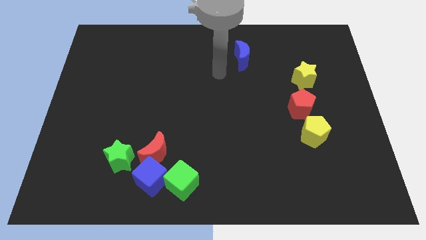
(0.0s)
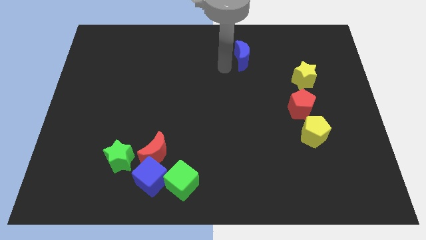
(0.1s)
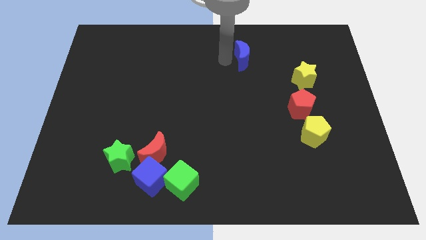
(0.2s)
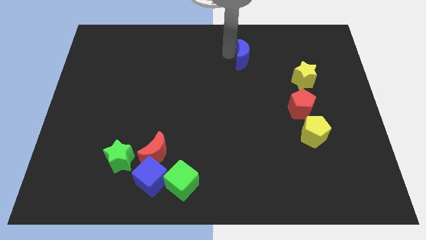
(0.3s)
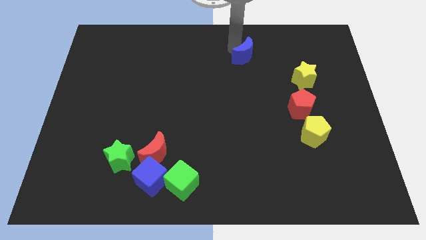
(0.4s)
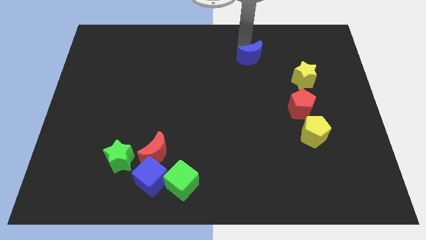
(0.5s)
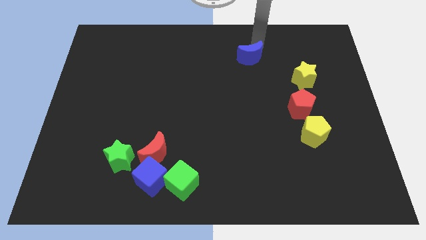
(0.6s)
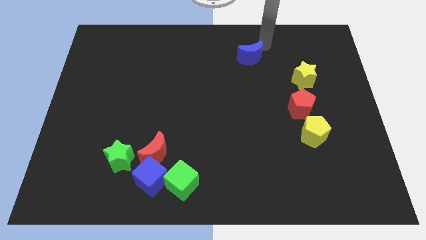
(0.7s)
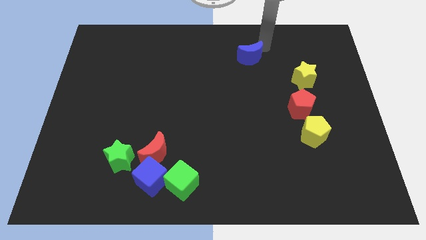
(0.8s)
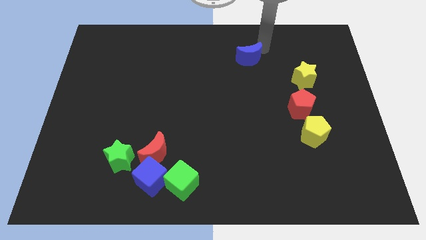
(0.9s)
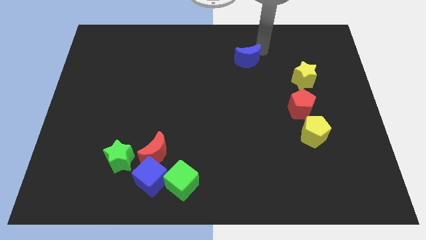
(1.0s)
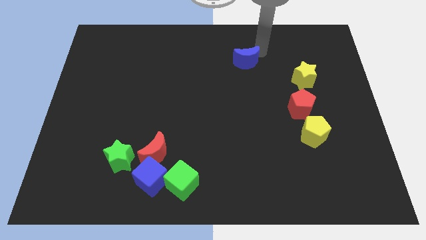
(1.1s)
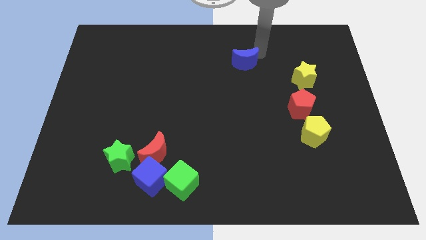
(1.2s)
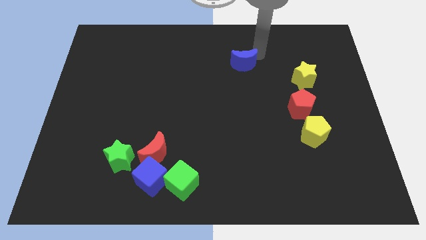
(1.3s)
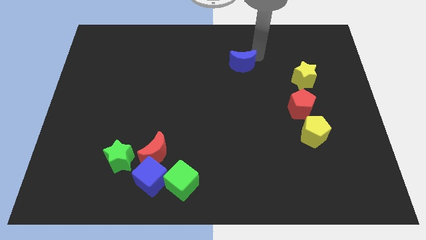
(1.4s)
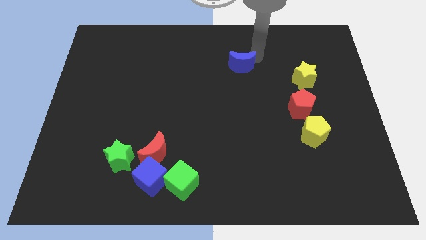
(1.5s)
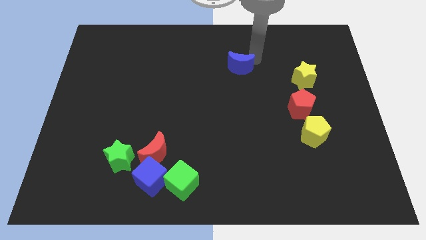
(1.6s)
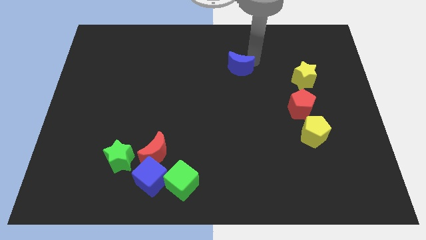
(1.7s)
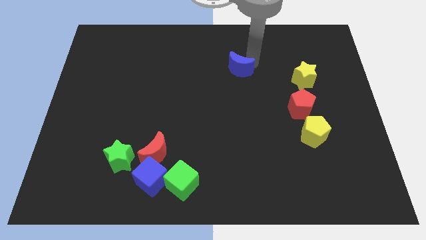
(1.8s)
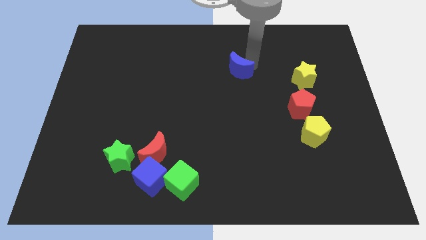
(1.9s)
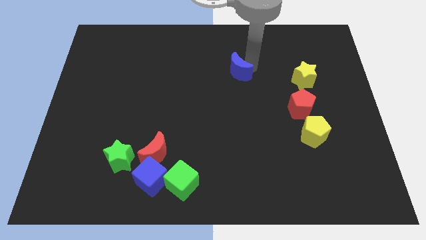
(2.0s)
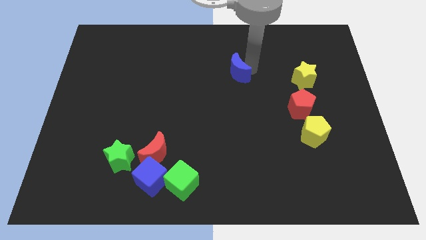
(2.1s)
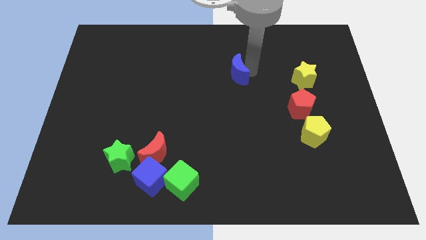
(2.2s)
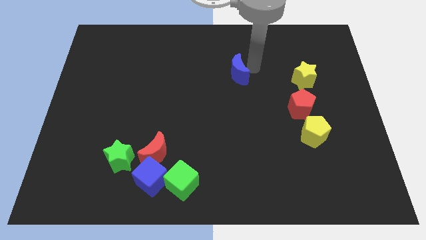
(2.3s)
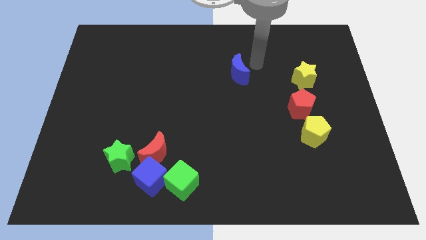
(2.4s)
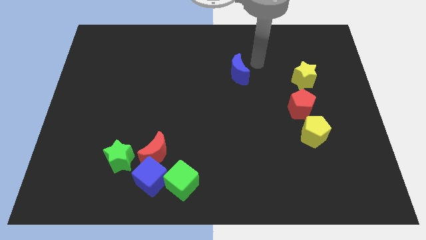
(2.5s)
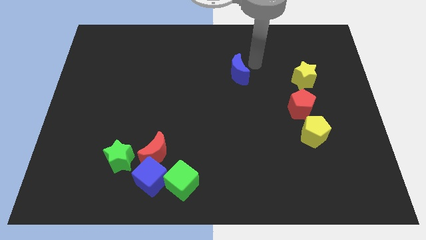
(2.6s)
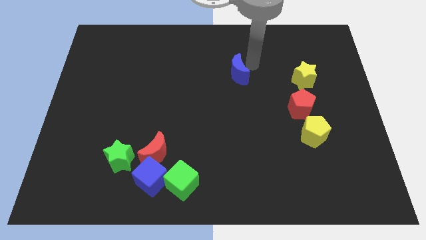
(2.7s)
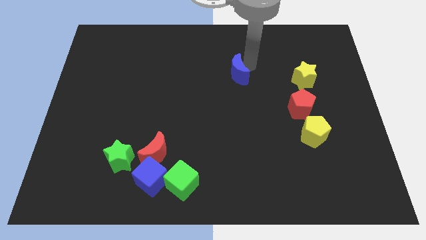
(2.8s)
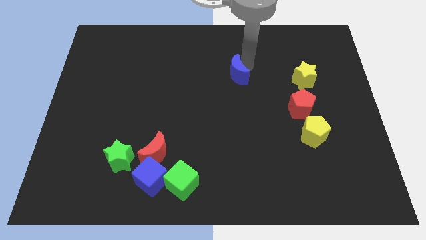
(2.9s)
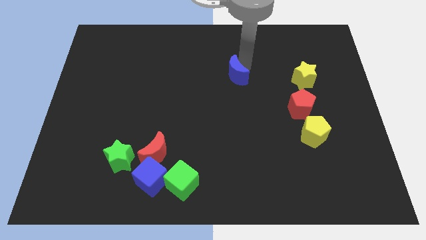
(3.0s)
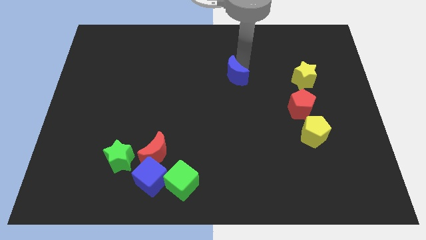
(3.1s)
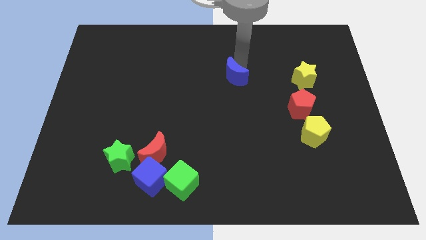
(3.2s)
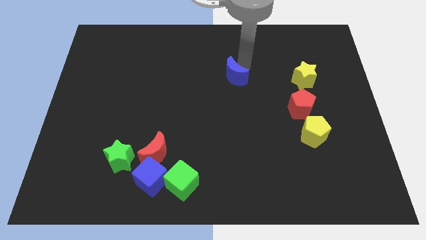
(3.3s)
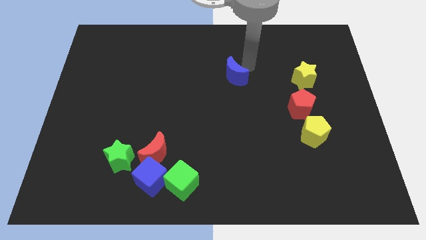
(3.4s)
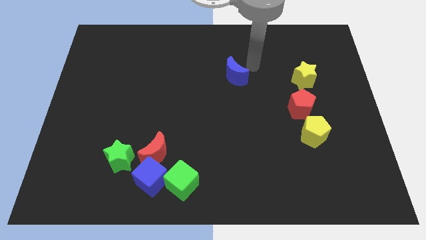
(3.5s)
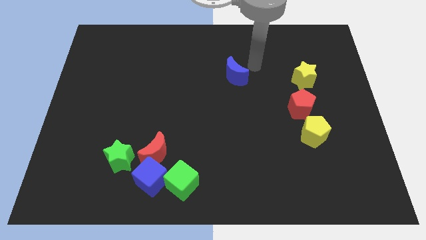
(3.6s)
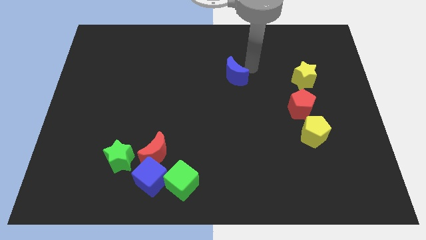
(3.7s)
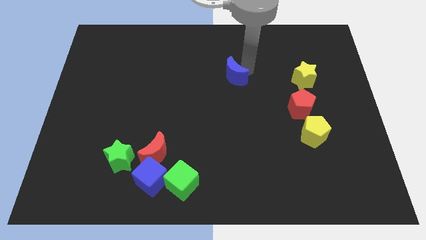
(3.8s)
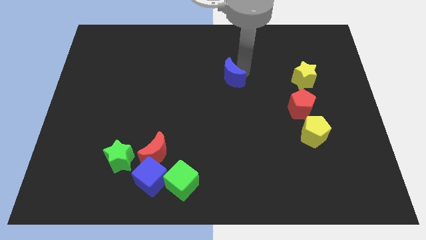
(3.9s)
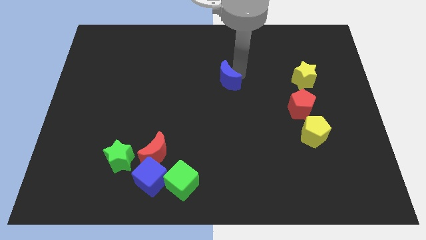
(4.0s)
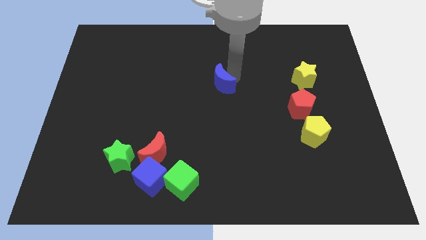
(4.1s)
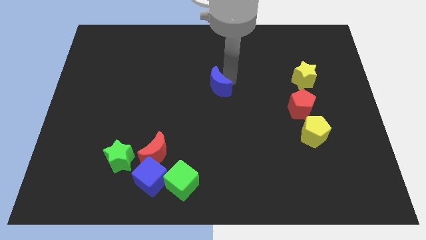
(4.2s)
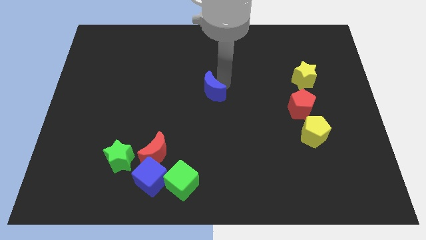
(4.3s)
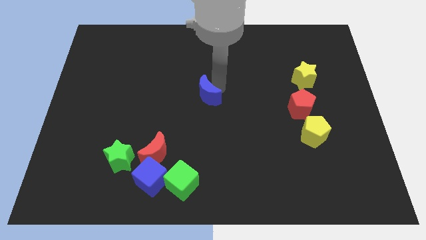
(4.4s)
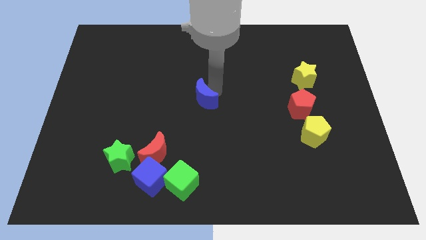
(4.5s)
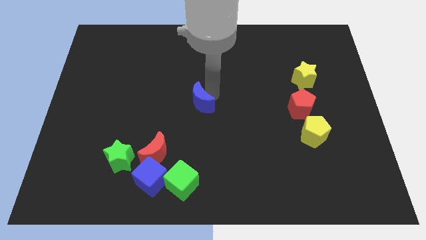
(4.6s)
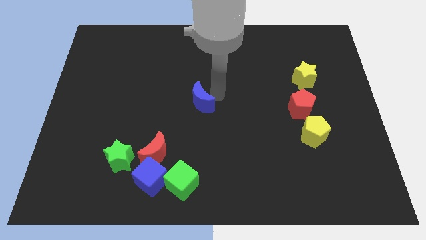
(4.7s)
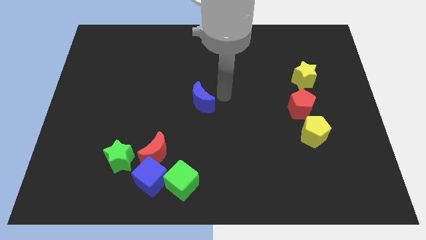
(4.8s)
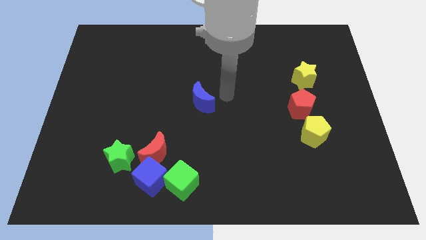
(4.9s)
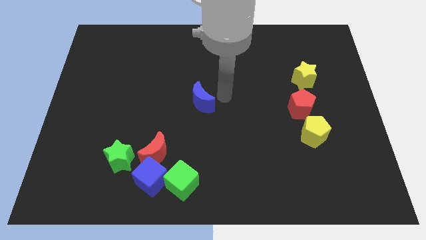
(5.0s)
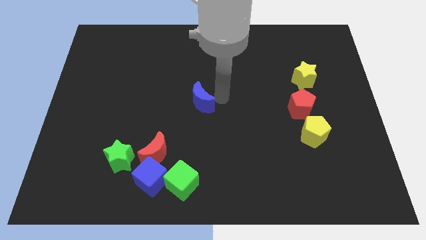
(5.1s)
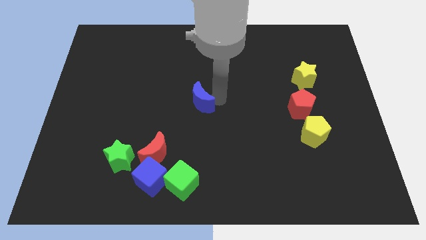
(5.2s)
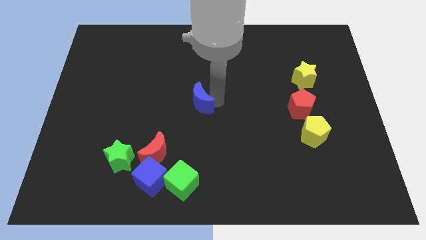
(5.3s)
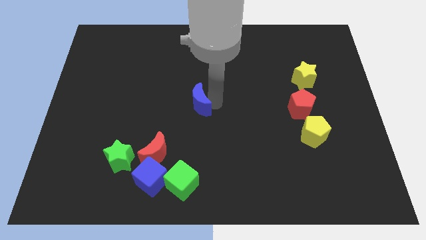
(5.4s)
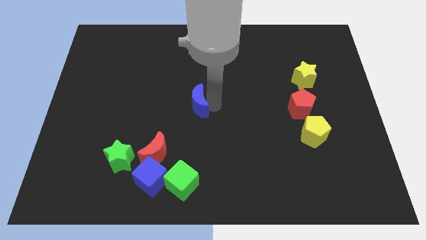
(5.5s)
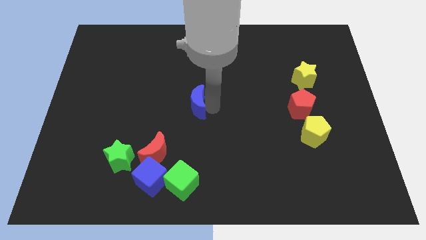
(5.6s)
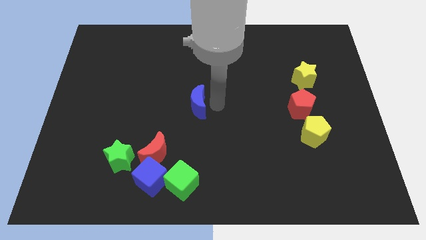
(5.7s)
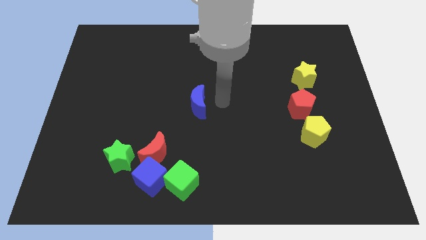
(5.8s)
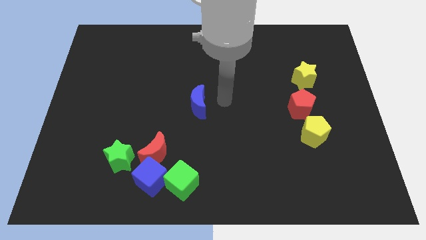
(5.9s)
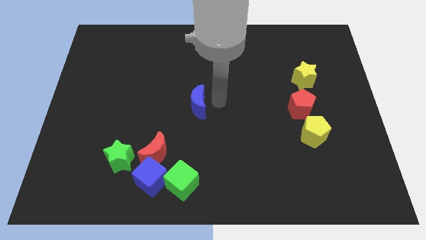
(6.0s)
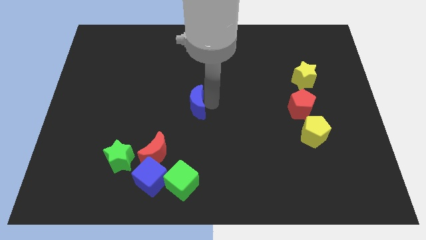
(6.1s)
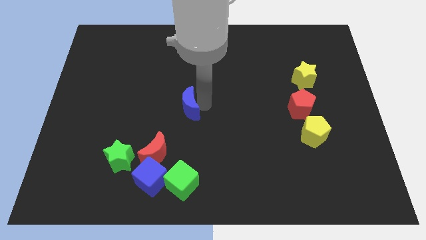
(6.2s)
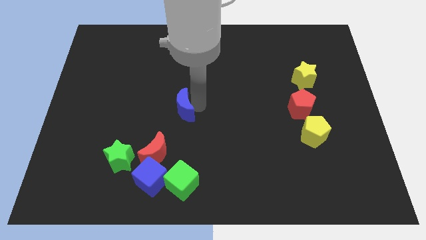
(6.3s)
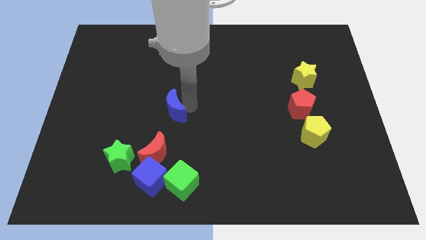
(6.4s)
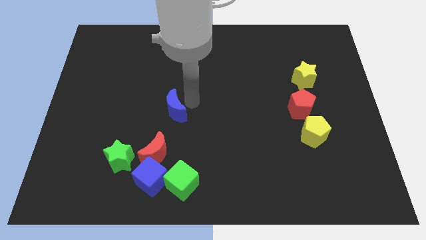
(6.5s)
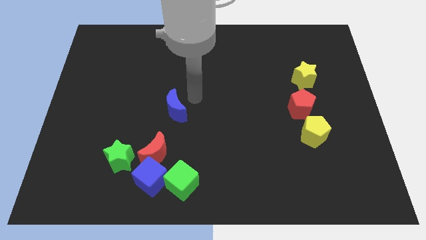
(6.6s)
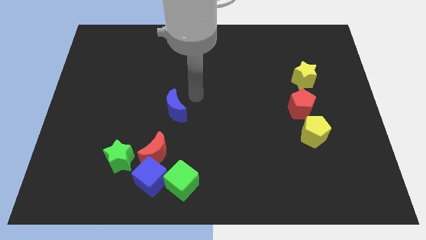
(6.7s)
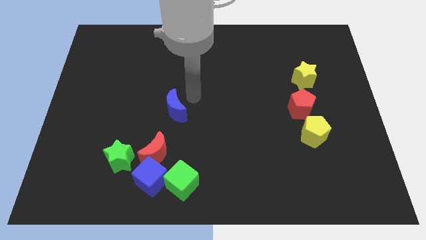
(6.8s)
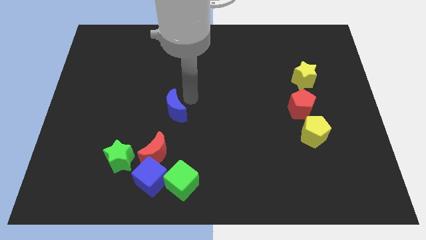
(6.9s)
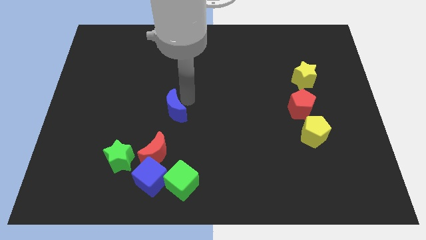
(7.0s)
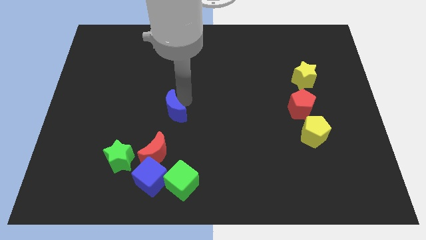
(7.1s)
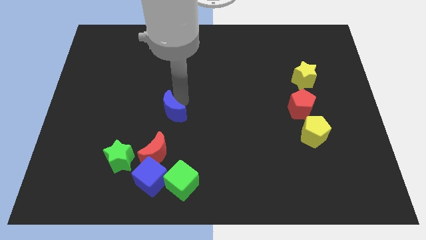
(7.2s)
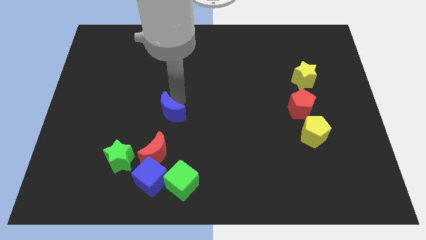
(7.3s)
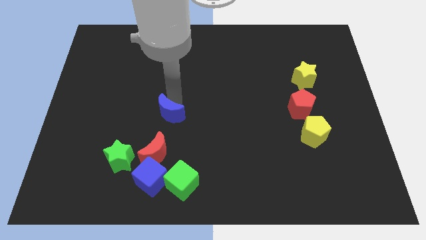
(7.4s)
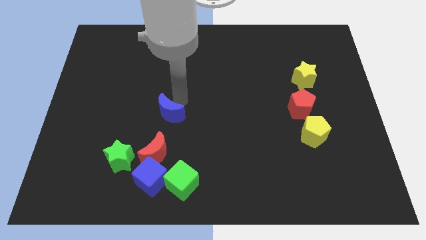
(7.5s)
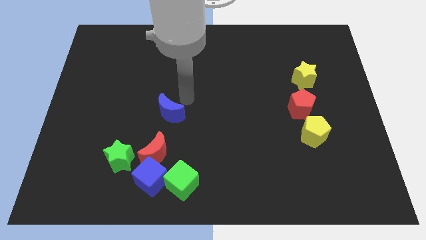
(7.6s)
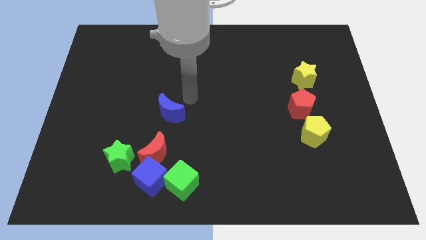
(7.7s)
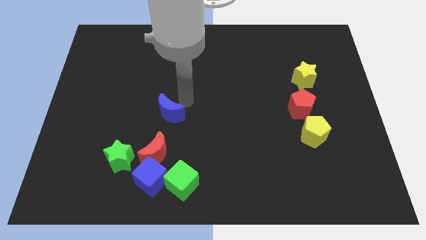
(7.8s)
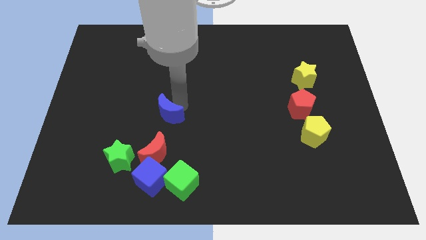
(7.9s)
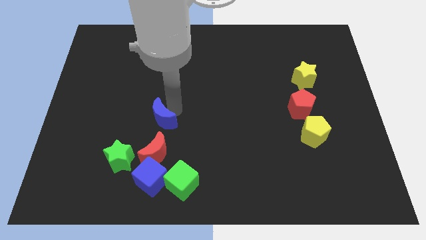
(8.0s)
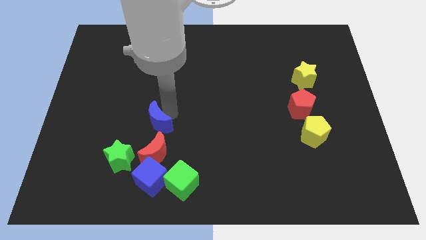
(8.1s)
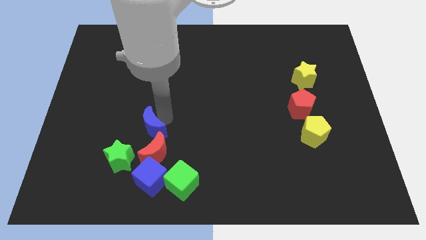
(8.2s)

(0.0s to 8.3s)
slide the blue moon to the top left of the red moon
